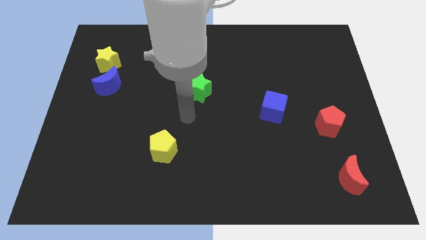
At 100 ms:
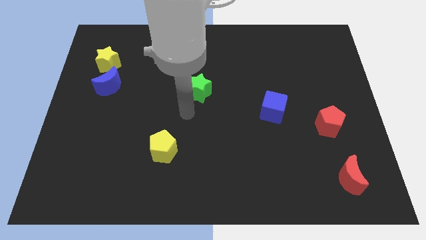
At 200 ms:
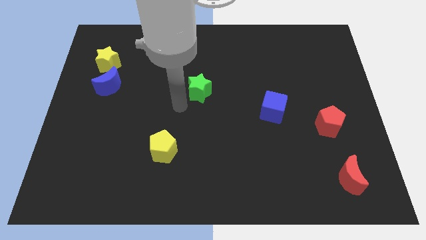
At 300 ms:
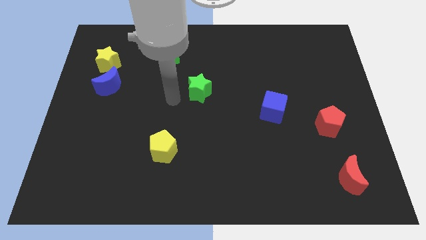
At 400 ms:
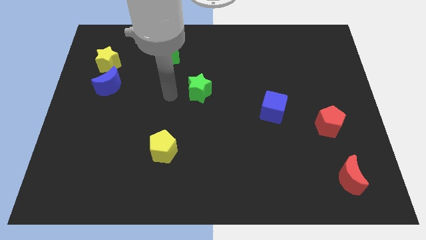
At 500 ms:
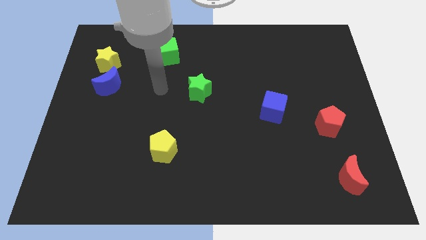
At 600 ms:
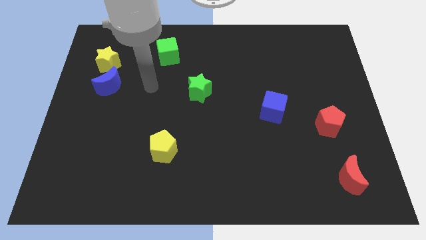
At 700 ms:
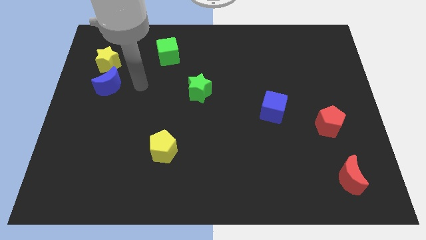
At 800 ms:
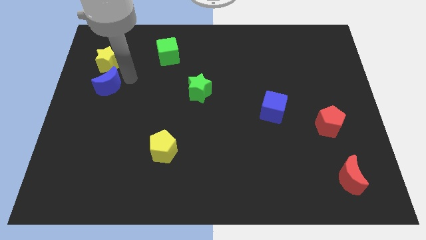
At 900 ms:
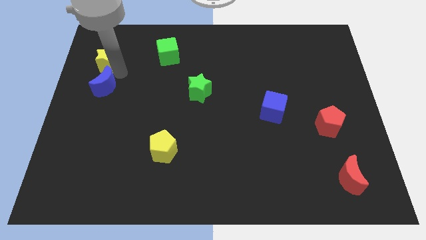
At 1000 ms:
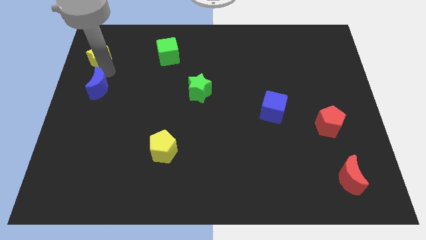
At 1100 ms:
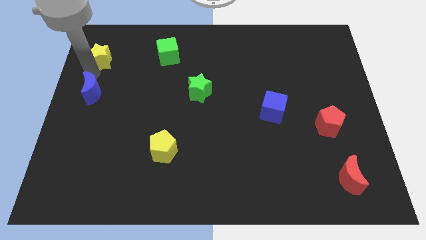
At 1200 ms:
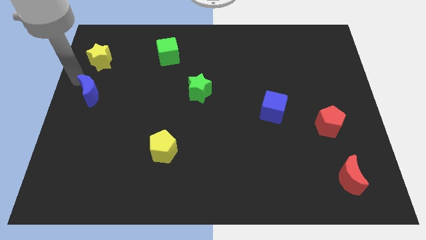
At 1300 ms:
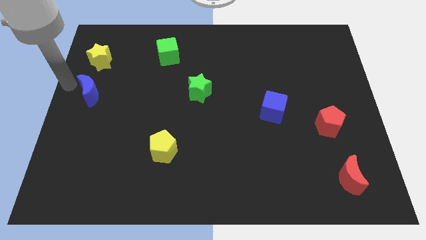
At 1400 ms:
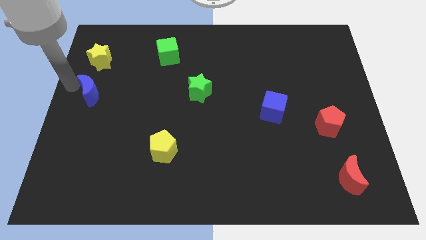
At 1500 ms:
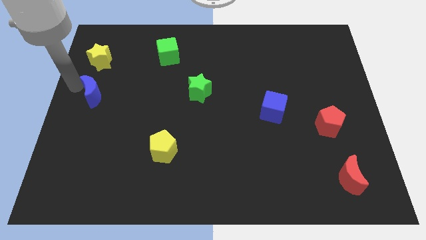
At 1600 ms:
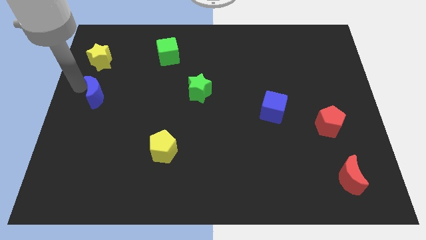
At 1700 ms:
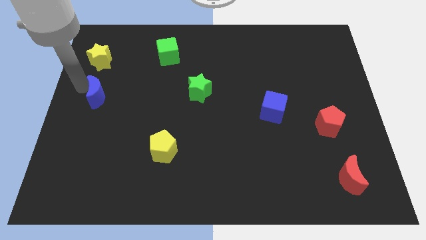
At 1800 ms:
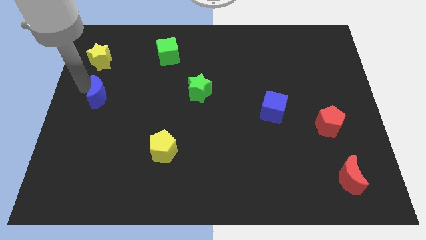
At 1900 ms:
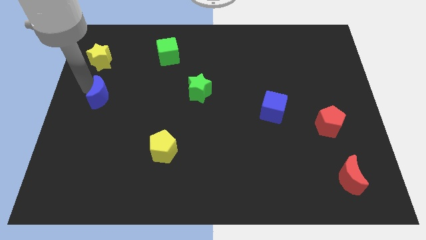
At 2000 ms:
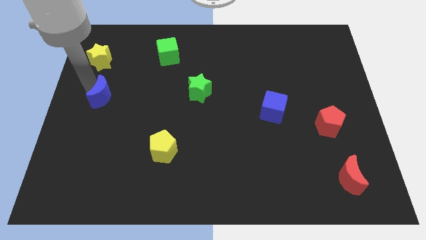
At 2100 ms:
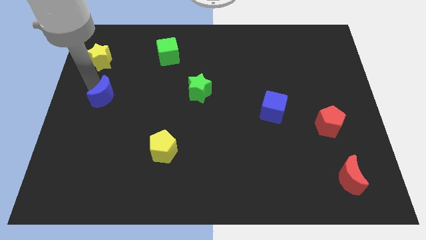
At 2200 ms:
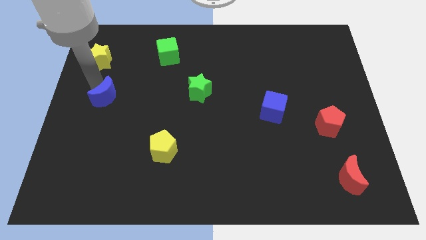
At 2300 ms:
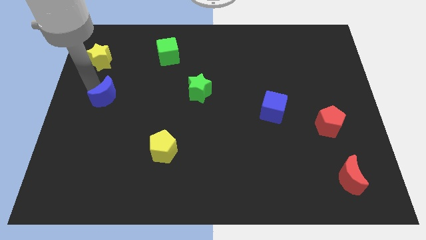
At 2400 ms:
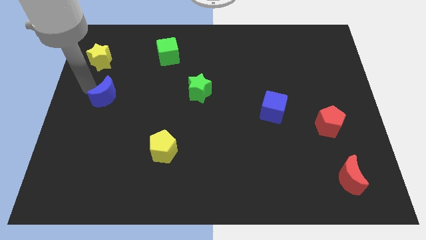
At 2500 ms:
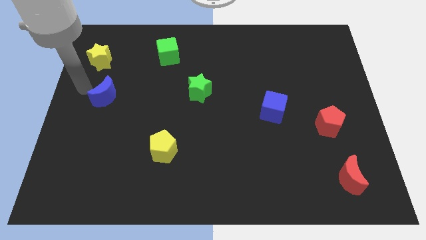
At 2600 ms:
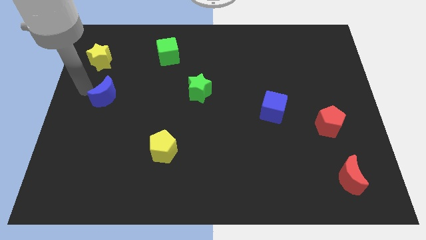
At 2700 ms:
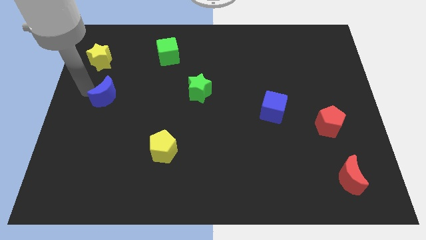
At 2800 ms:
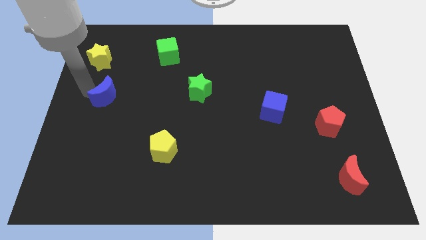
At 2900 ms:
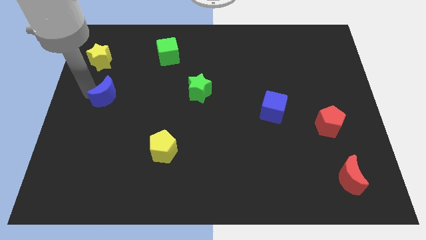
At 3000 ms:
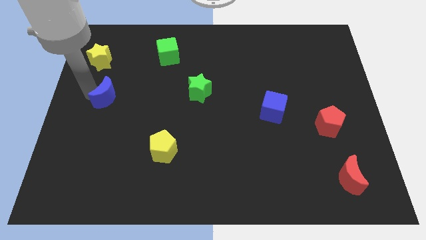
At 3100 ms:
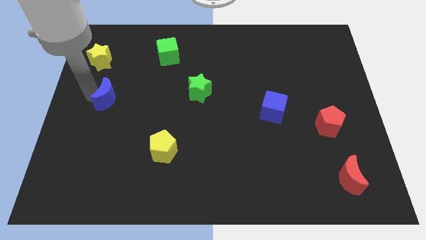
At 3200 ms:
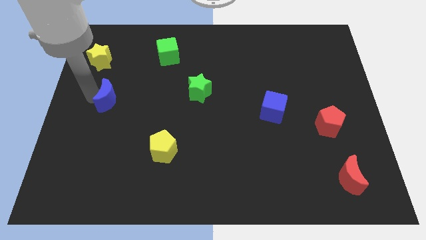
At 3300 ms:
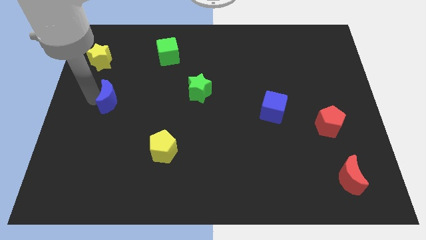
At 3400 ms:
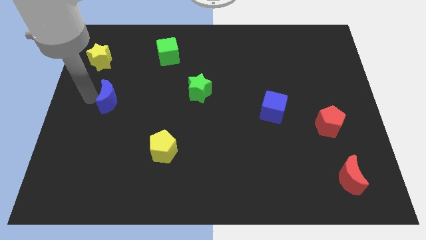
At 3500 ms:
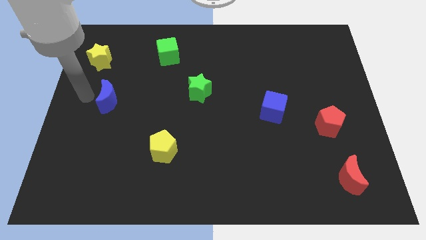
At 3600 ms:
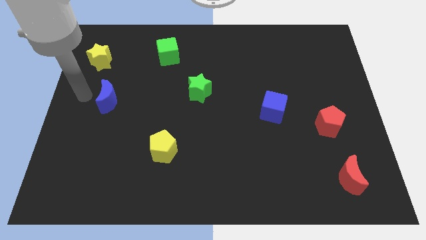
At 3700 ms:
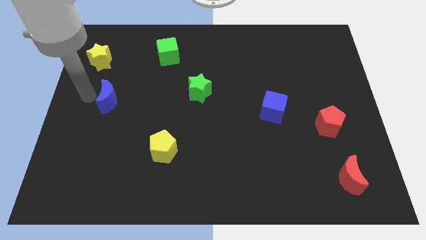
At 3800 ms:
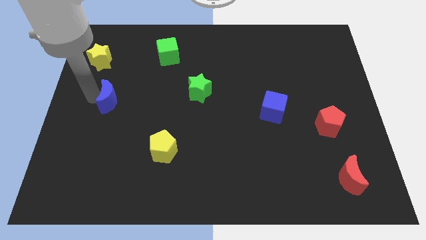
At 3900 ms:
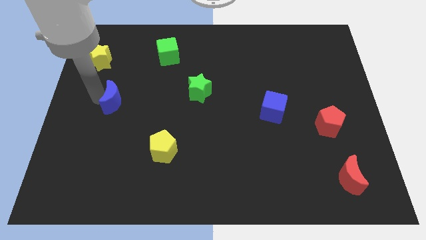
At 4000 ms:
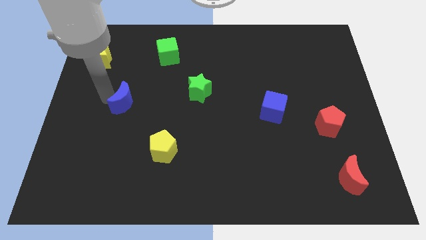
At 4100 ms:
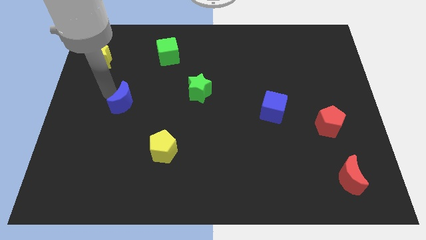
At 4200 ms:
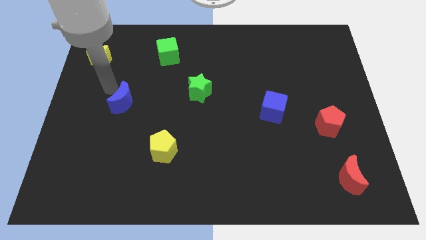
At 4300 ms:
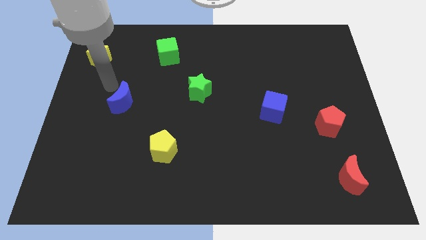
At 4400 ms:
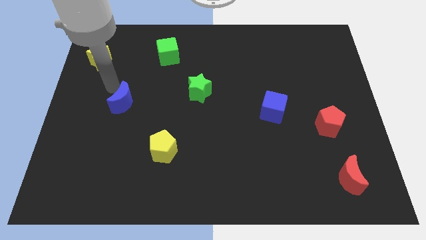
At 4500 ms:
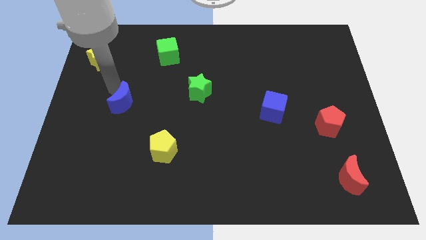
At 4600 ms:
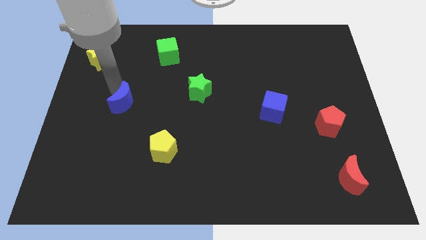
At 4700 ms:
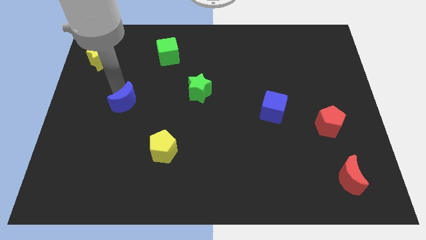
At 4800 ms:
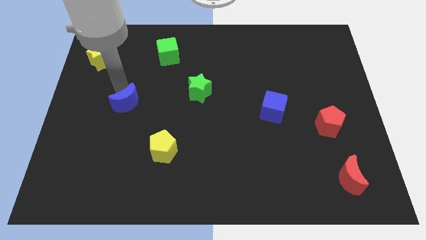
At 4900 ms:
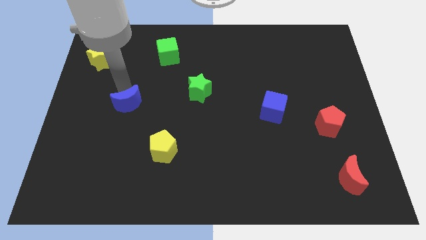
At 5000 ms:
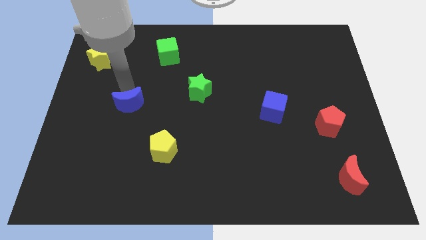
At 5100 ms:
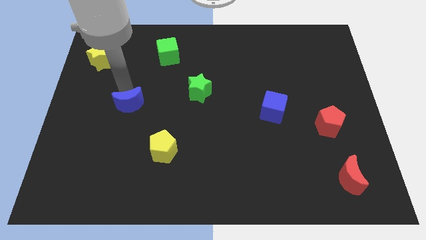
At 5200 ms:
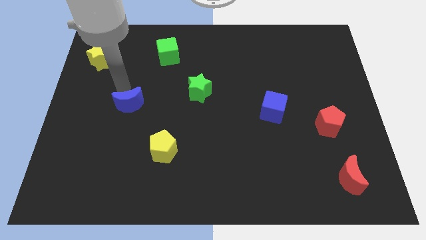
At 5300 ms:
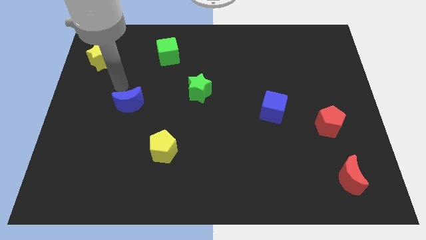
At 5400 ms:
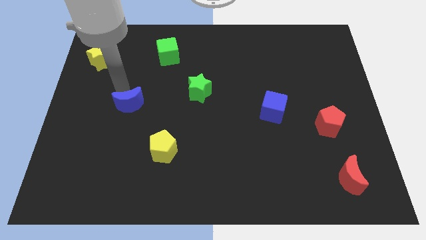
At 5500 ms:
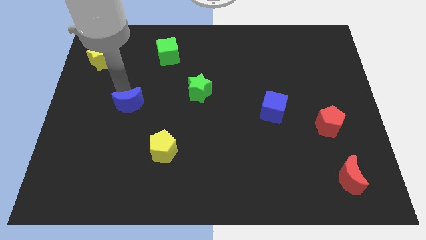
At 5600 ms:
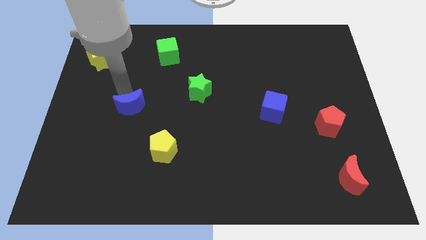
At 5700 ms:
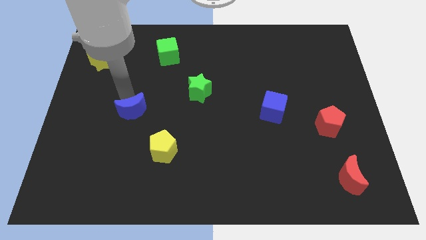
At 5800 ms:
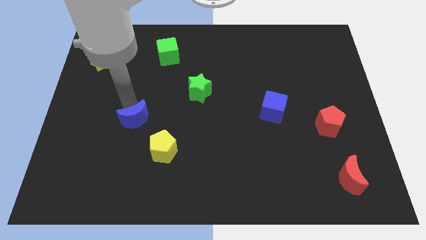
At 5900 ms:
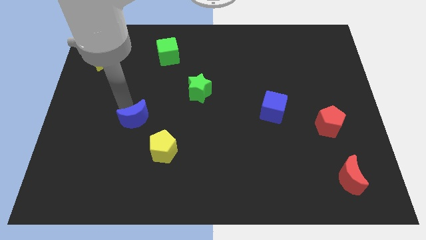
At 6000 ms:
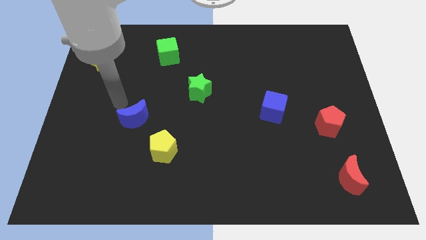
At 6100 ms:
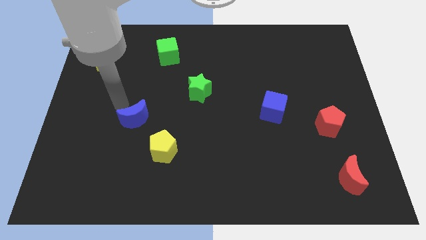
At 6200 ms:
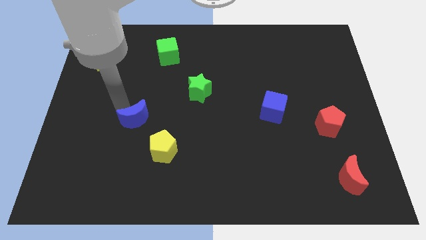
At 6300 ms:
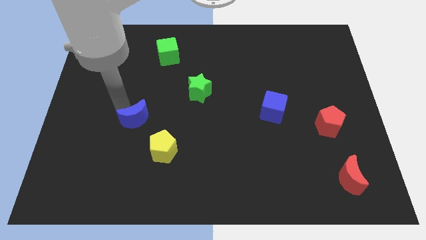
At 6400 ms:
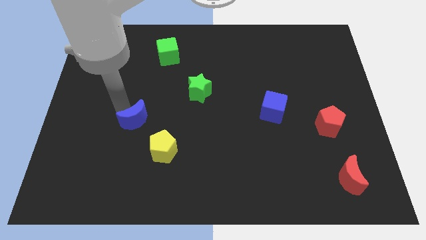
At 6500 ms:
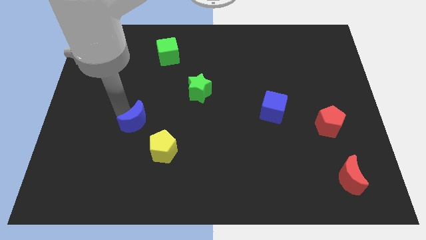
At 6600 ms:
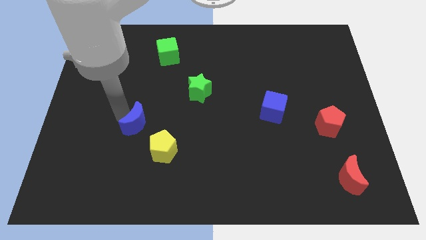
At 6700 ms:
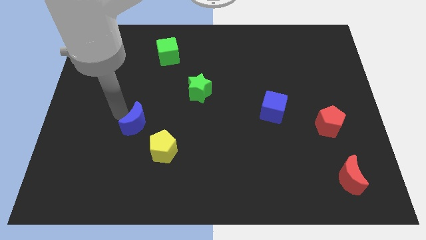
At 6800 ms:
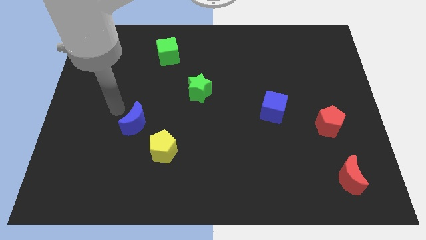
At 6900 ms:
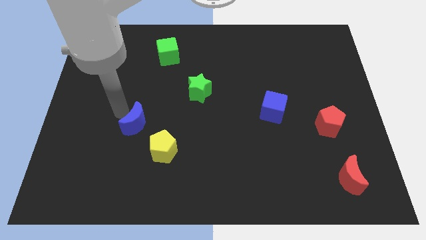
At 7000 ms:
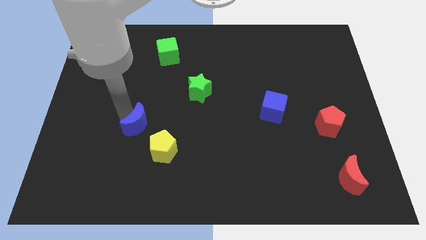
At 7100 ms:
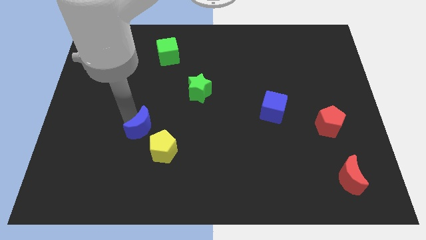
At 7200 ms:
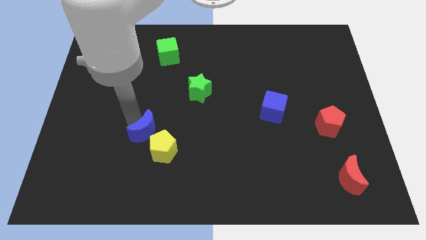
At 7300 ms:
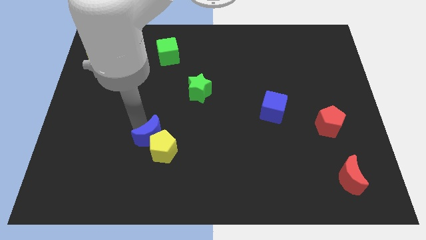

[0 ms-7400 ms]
slide the blue moon to the yellow pentagon
